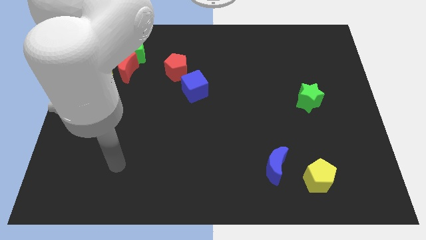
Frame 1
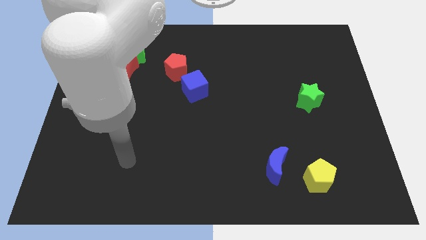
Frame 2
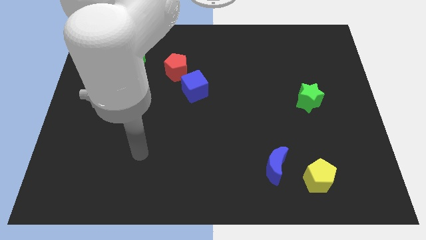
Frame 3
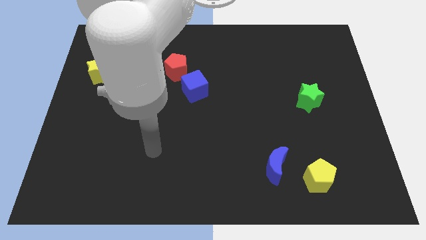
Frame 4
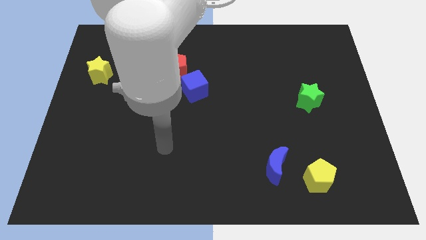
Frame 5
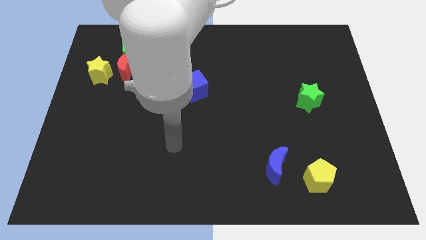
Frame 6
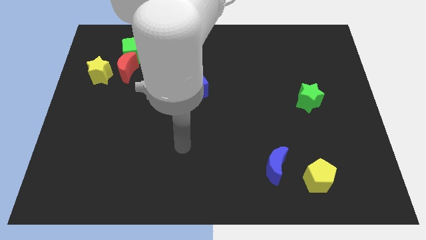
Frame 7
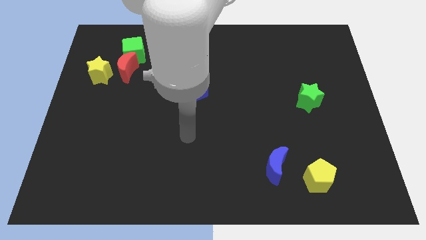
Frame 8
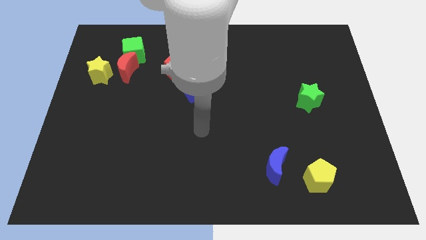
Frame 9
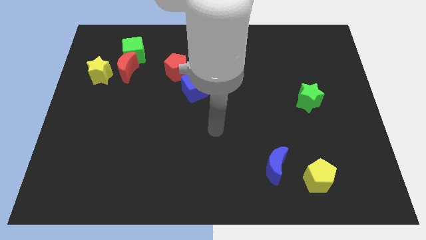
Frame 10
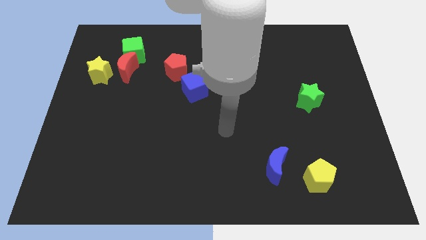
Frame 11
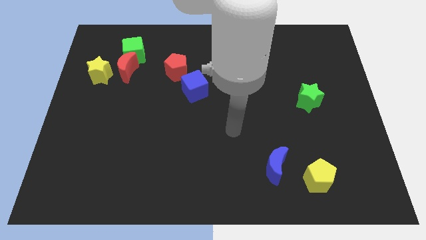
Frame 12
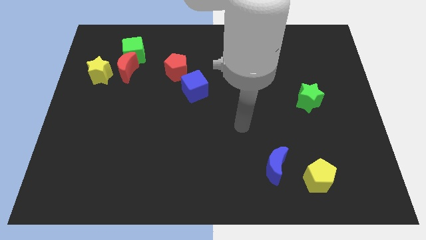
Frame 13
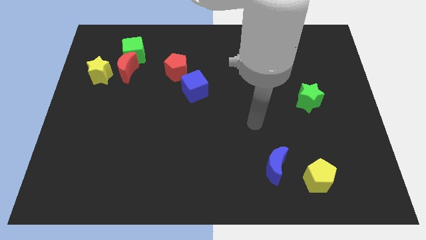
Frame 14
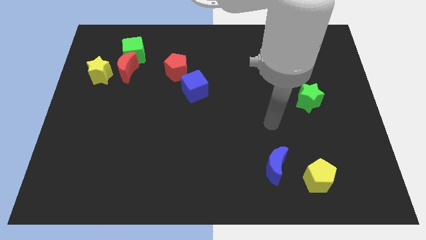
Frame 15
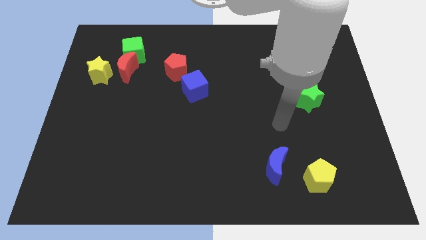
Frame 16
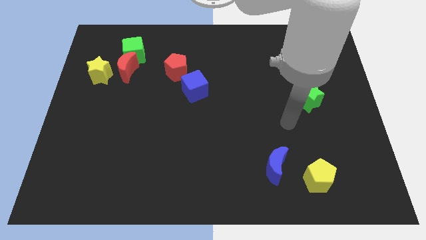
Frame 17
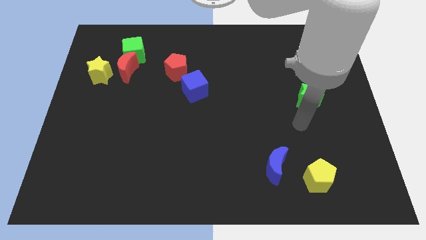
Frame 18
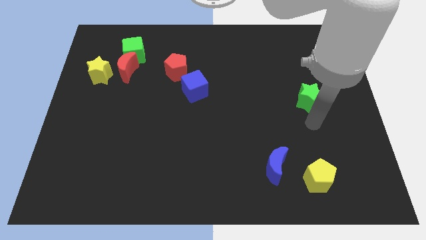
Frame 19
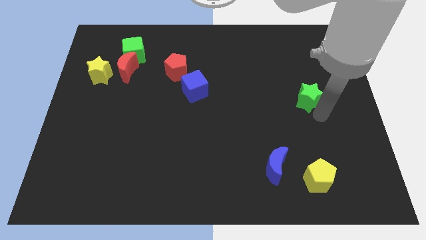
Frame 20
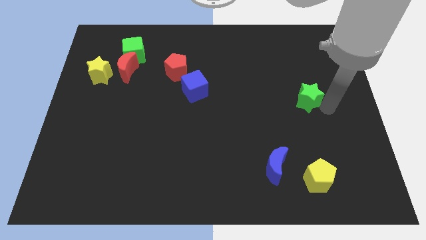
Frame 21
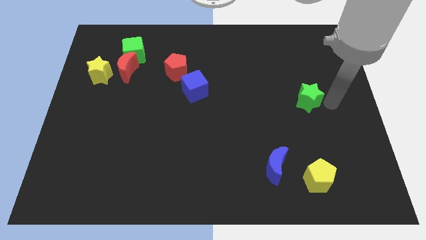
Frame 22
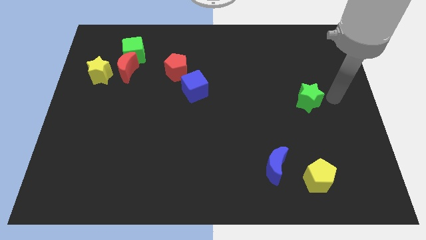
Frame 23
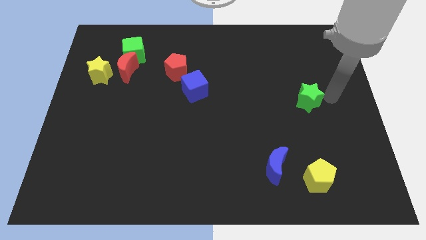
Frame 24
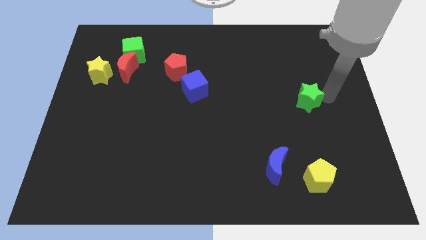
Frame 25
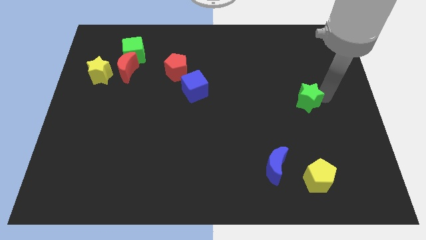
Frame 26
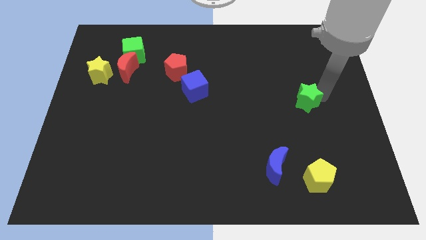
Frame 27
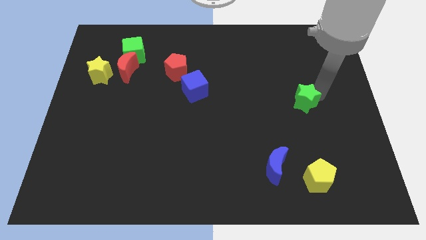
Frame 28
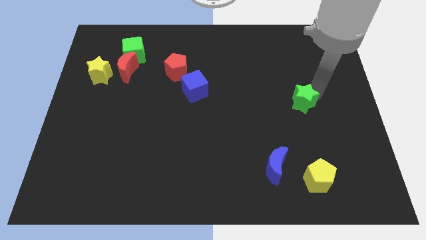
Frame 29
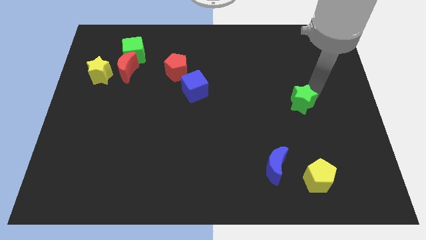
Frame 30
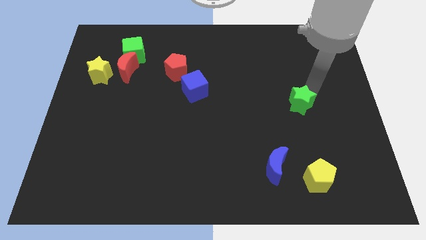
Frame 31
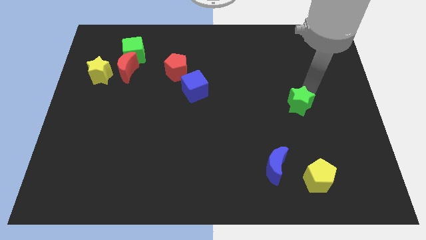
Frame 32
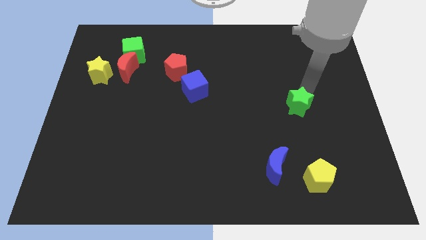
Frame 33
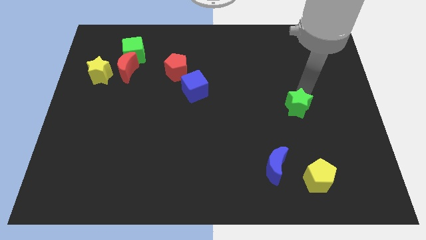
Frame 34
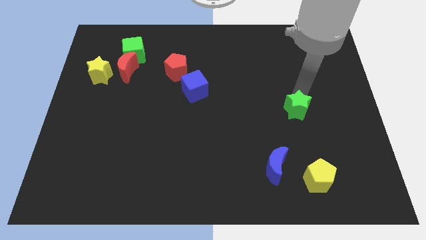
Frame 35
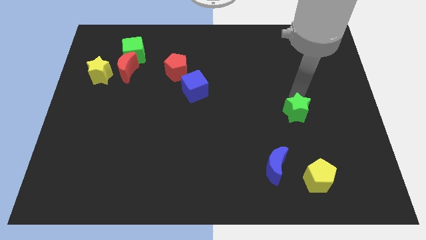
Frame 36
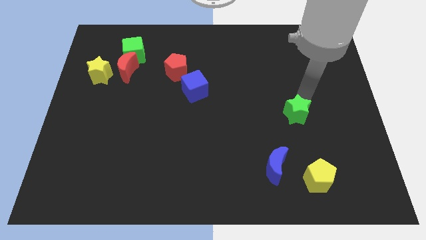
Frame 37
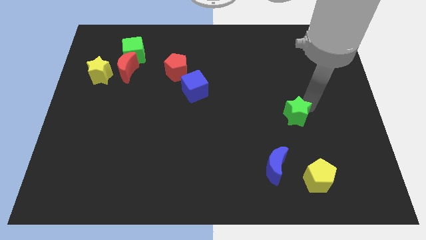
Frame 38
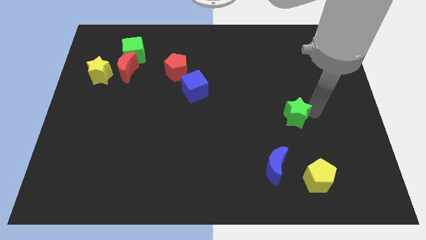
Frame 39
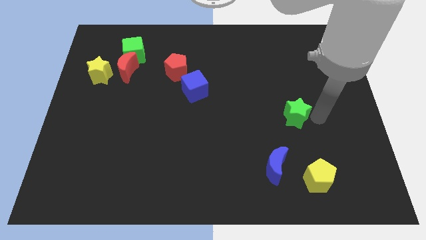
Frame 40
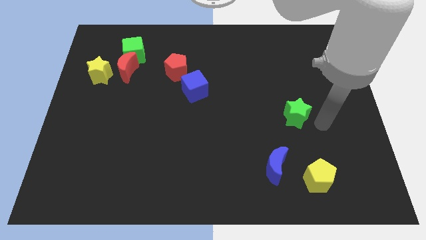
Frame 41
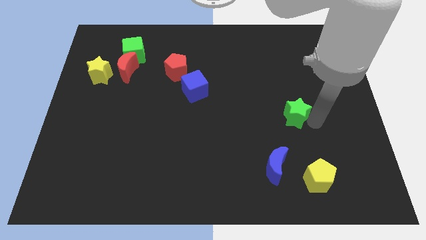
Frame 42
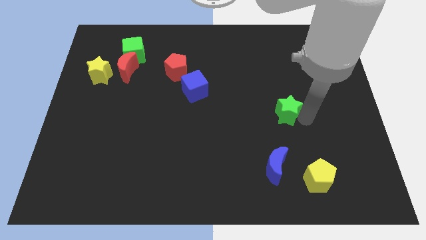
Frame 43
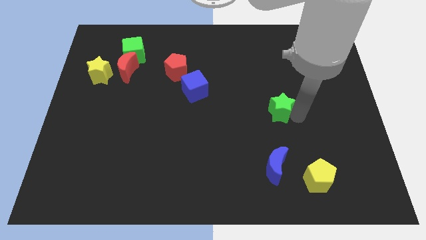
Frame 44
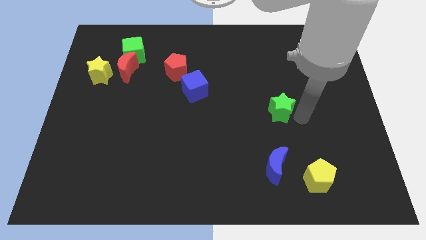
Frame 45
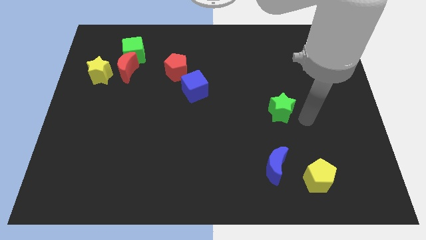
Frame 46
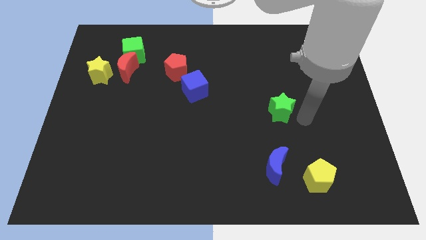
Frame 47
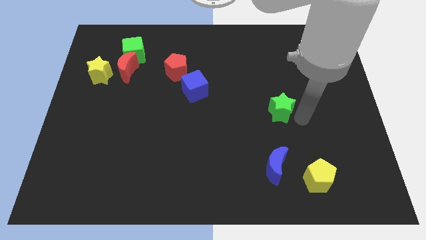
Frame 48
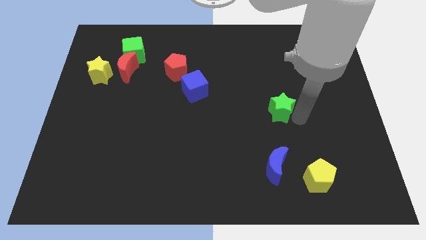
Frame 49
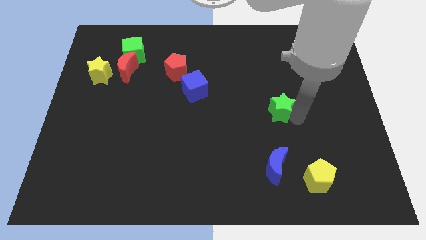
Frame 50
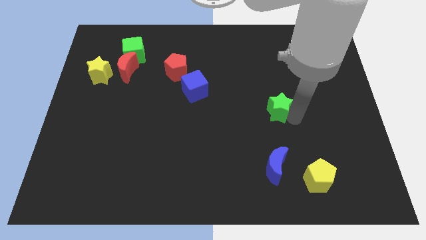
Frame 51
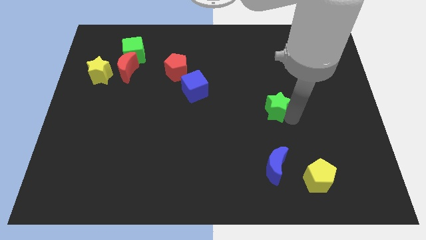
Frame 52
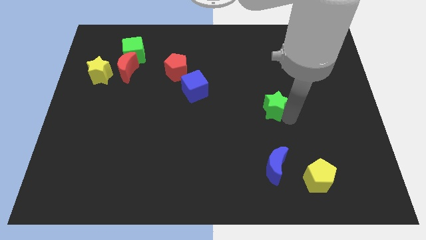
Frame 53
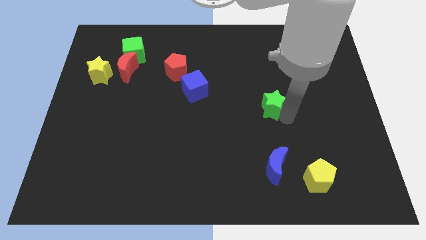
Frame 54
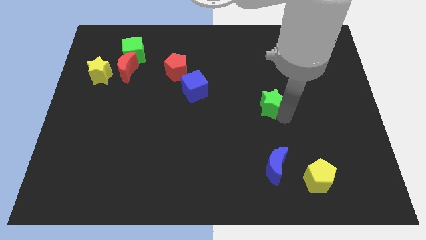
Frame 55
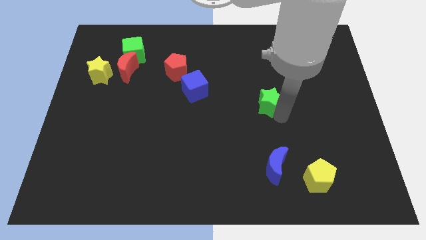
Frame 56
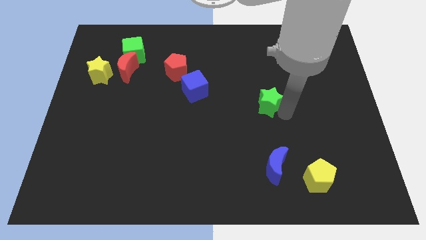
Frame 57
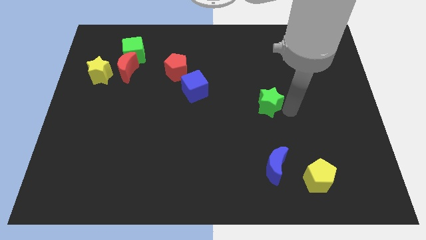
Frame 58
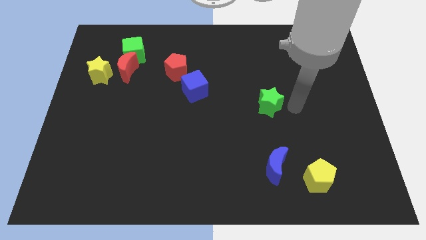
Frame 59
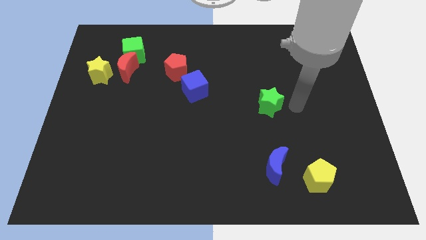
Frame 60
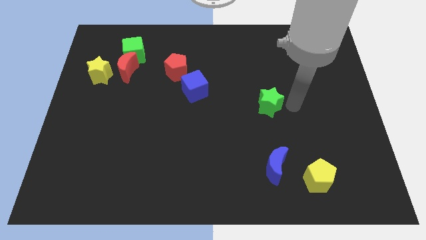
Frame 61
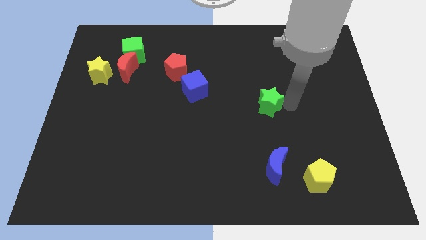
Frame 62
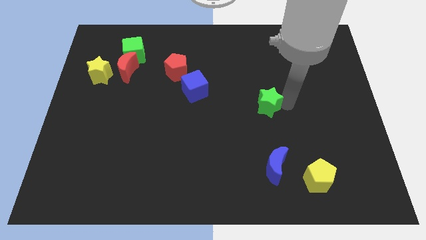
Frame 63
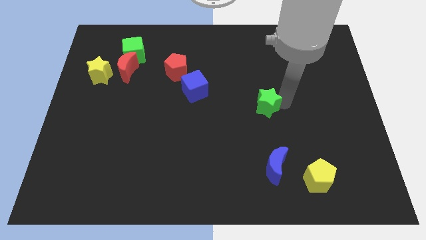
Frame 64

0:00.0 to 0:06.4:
move the green star to the center

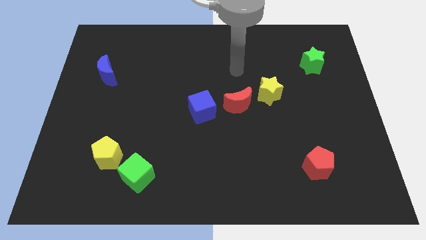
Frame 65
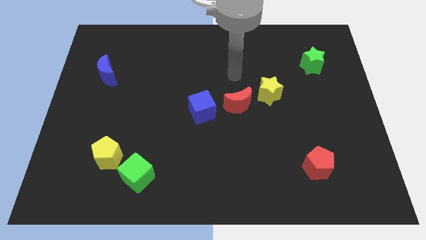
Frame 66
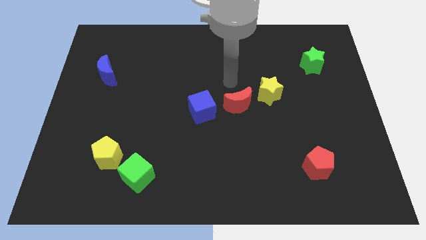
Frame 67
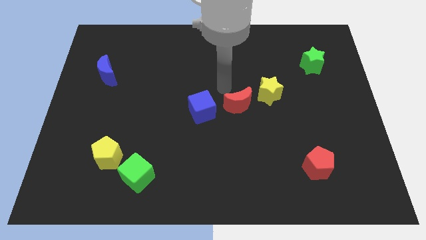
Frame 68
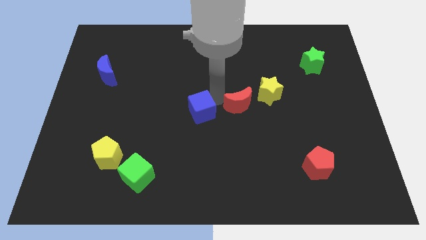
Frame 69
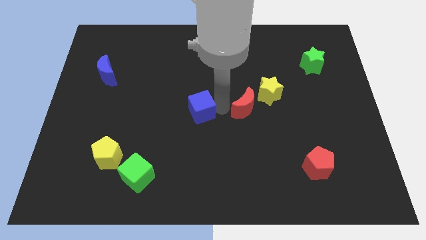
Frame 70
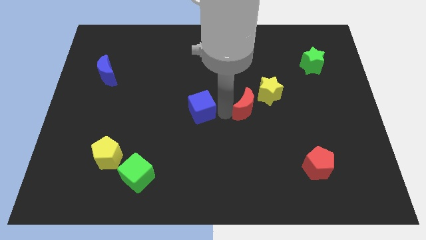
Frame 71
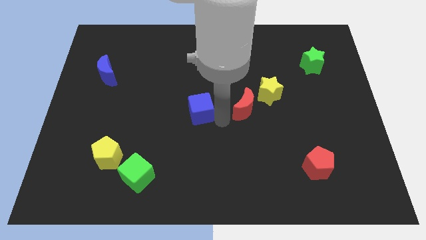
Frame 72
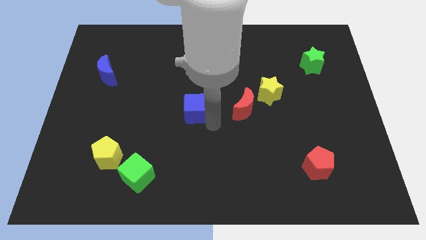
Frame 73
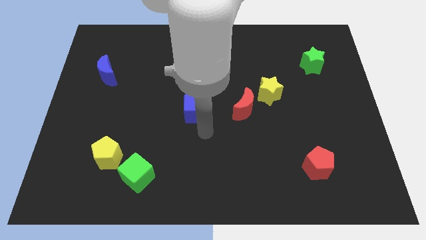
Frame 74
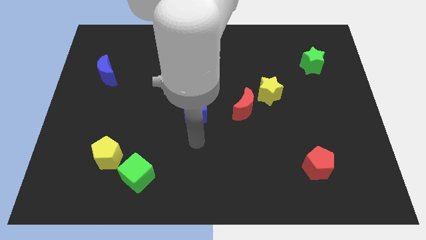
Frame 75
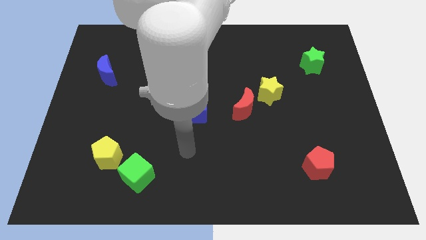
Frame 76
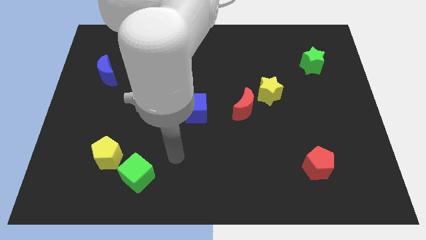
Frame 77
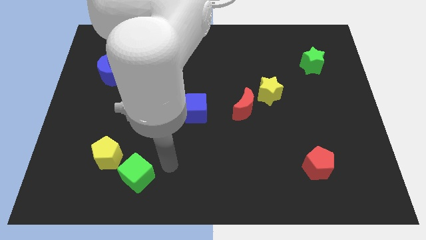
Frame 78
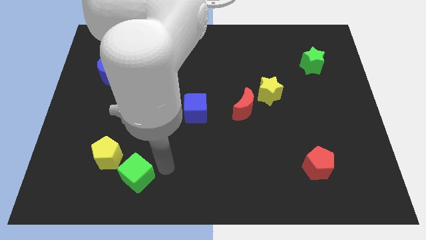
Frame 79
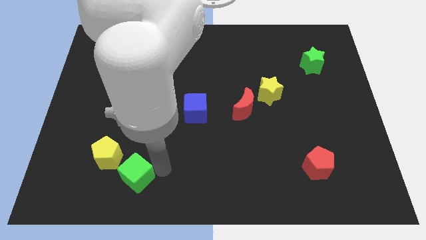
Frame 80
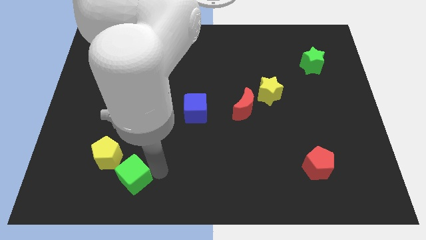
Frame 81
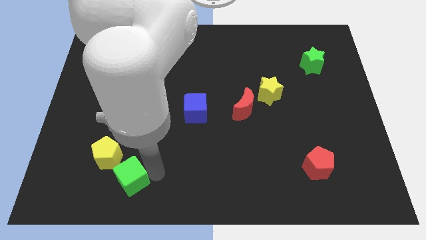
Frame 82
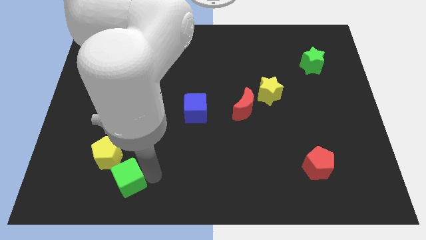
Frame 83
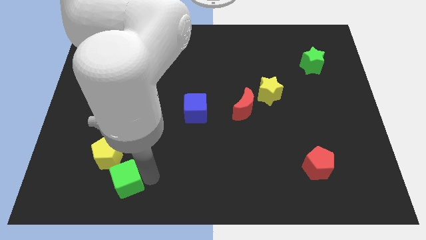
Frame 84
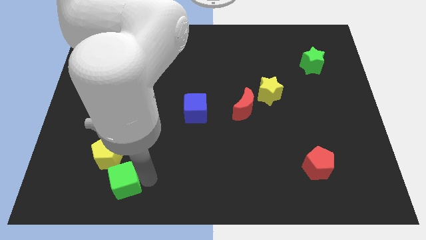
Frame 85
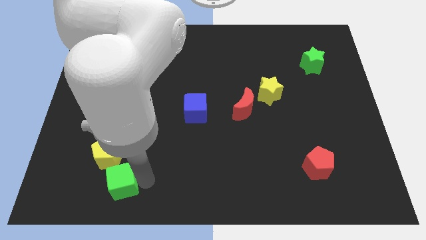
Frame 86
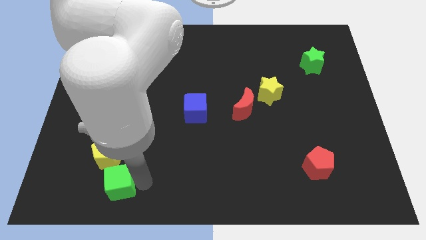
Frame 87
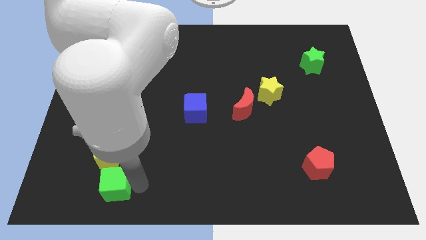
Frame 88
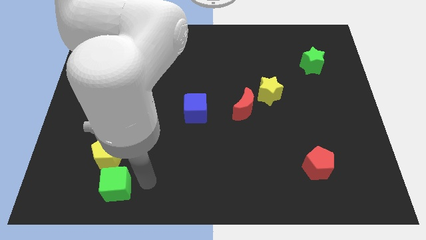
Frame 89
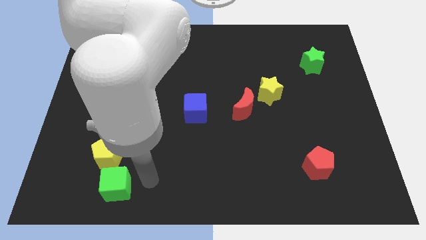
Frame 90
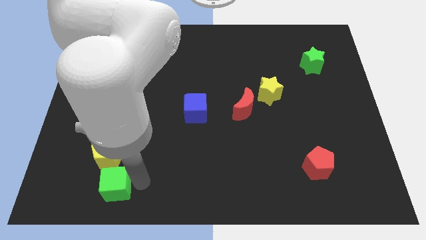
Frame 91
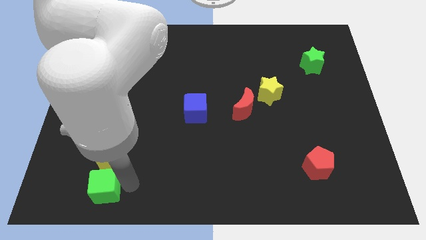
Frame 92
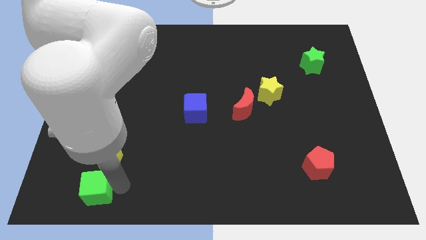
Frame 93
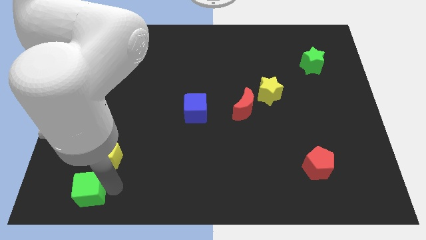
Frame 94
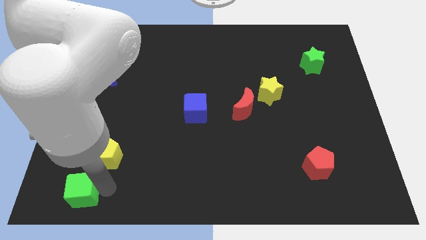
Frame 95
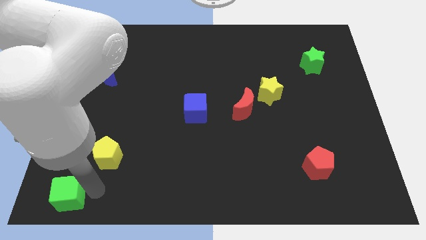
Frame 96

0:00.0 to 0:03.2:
push the green cube to the lower left corner
